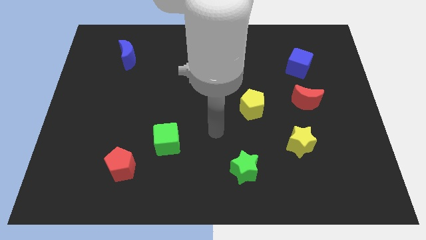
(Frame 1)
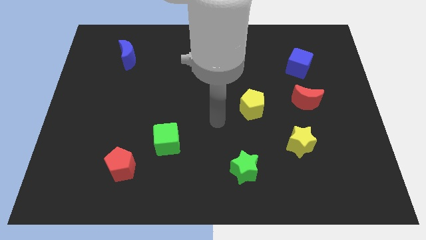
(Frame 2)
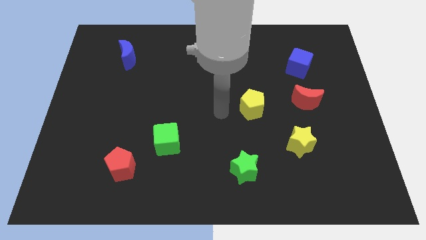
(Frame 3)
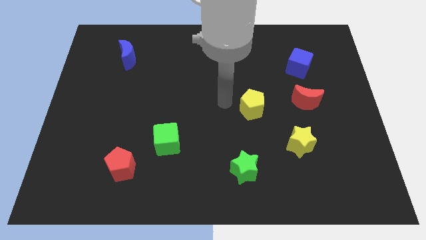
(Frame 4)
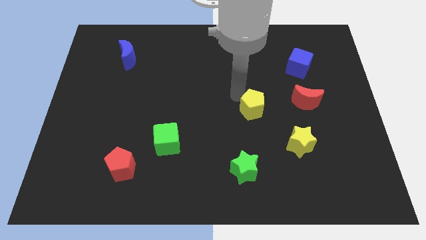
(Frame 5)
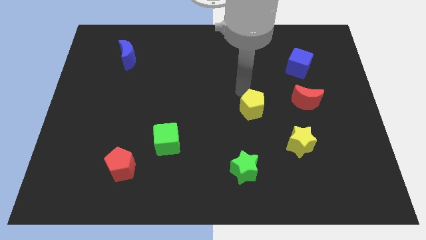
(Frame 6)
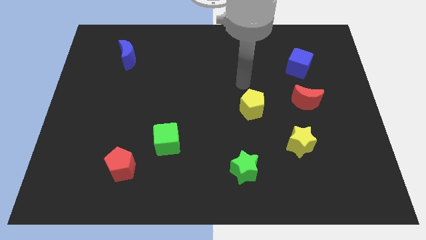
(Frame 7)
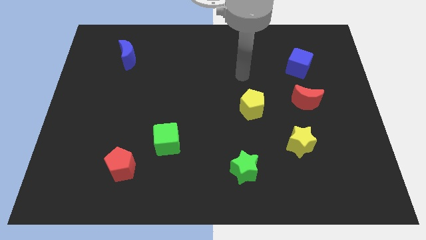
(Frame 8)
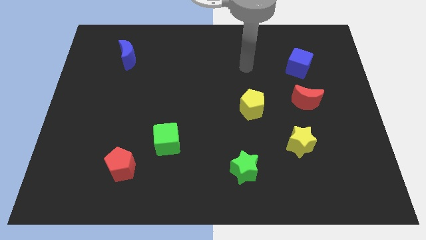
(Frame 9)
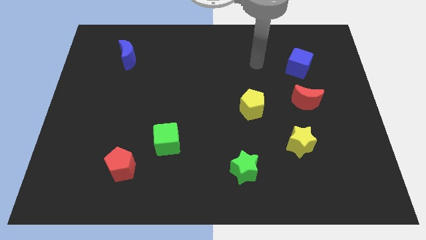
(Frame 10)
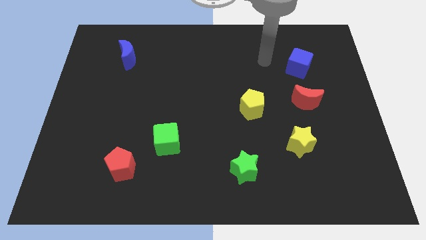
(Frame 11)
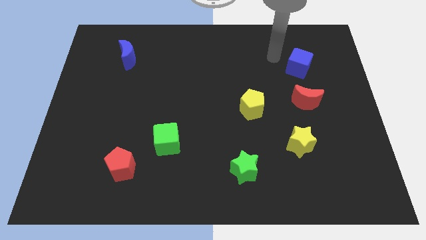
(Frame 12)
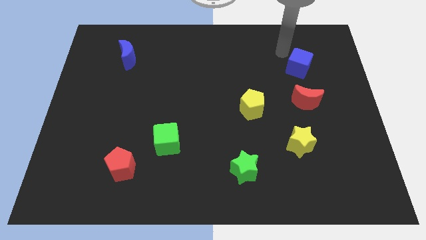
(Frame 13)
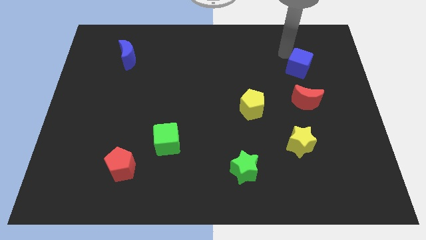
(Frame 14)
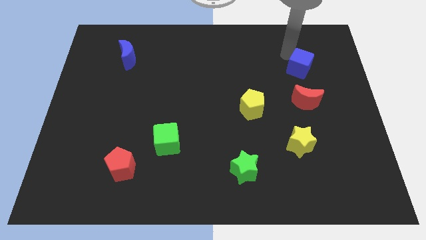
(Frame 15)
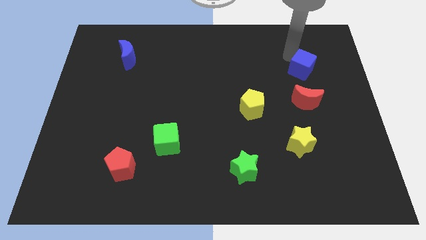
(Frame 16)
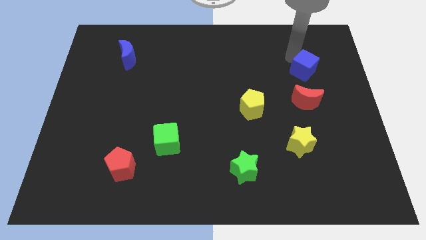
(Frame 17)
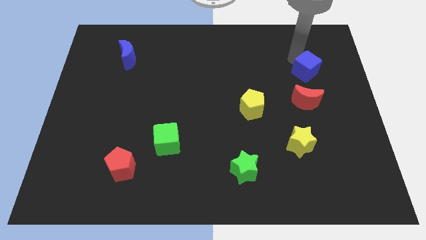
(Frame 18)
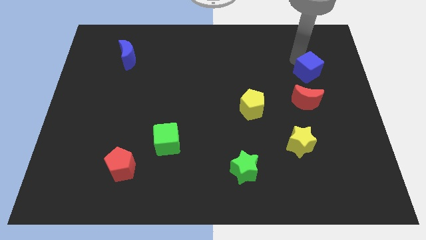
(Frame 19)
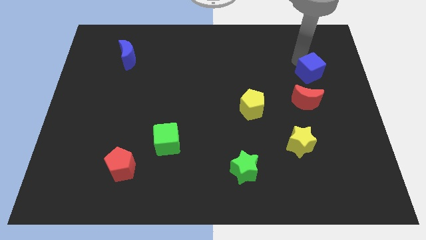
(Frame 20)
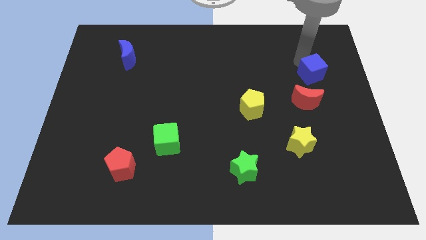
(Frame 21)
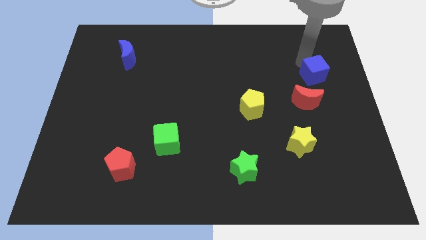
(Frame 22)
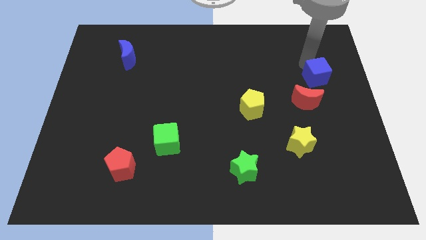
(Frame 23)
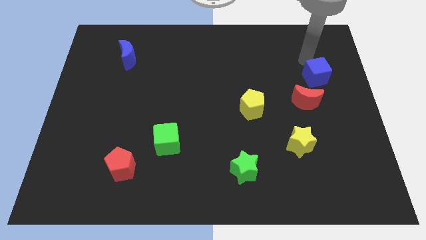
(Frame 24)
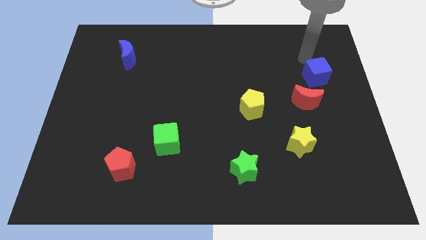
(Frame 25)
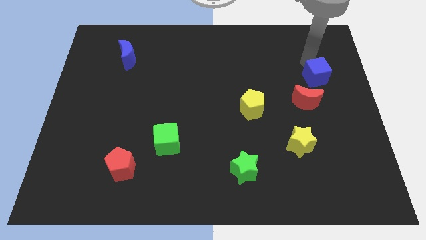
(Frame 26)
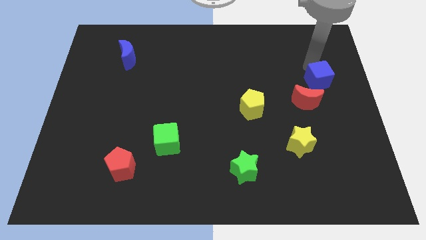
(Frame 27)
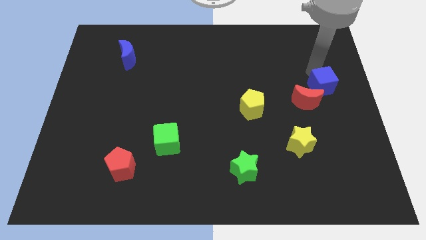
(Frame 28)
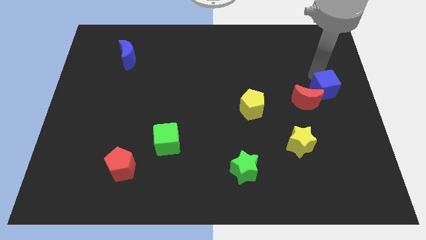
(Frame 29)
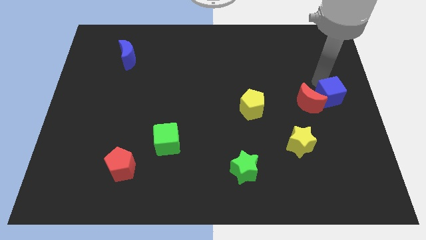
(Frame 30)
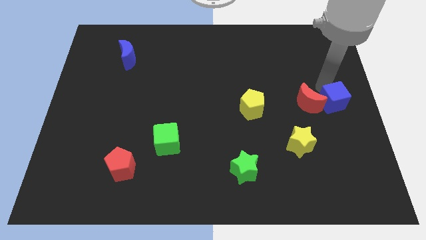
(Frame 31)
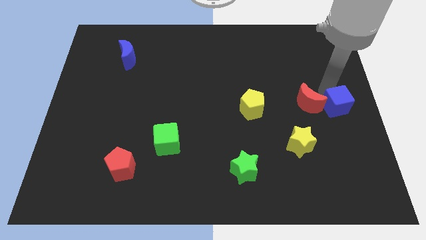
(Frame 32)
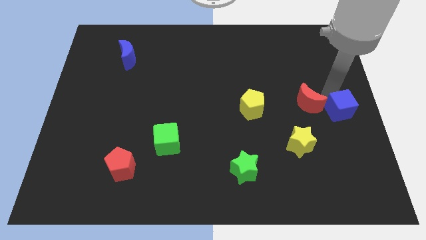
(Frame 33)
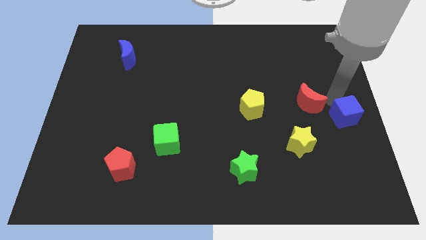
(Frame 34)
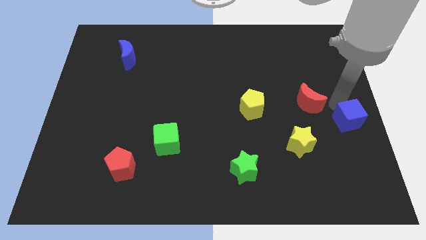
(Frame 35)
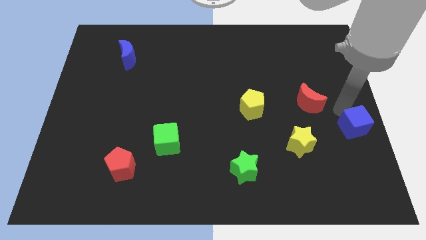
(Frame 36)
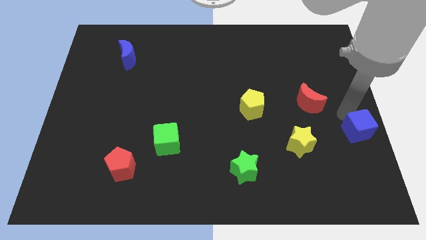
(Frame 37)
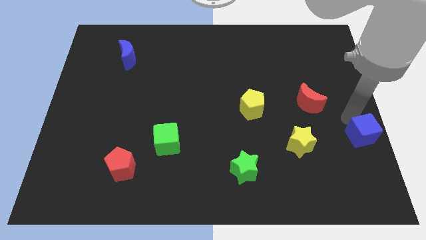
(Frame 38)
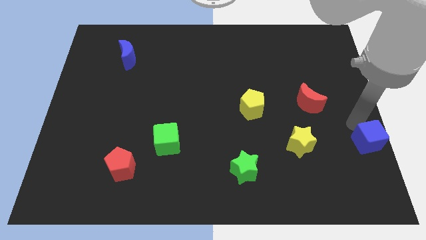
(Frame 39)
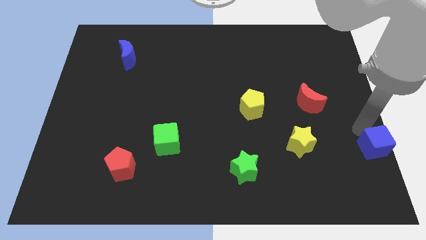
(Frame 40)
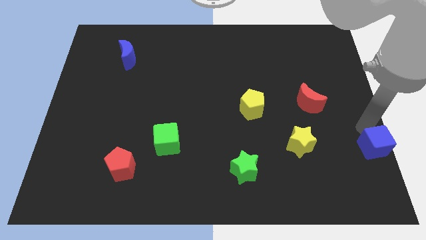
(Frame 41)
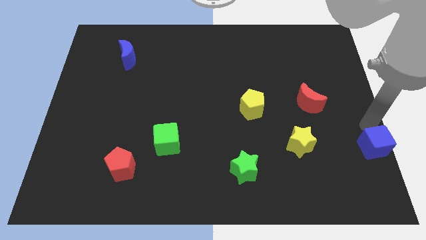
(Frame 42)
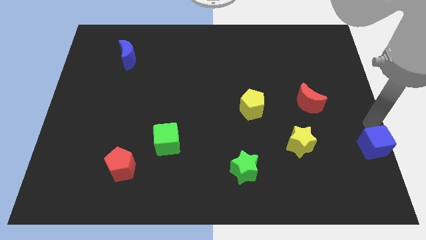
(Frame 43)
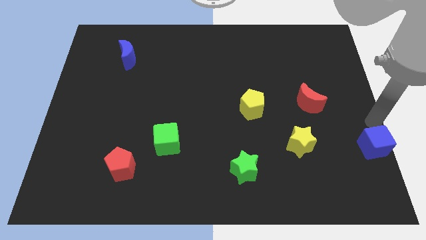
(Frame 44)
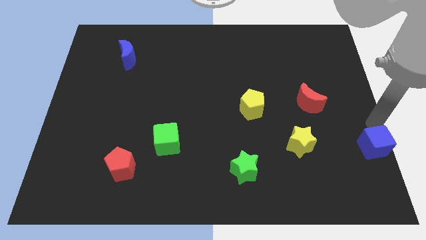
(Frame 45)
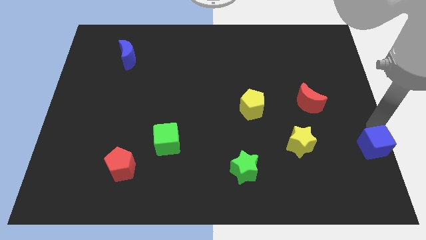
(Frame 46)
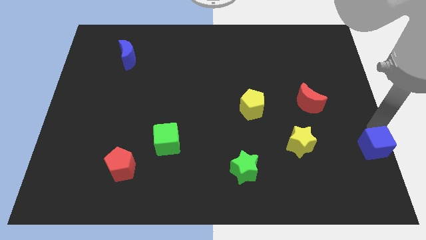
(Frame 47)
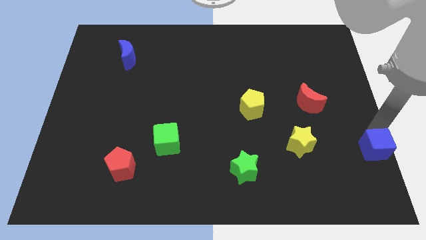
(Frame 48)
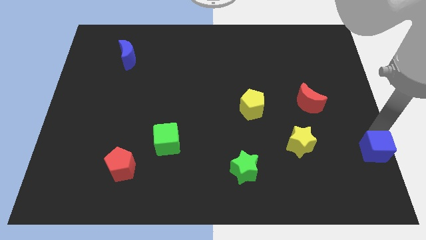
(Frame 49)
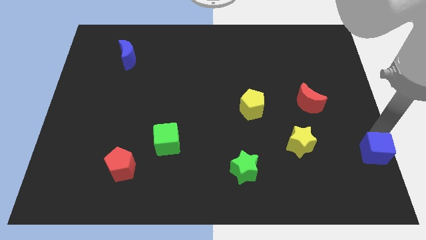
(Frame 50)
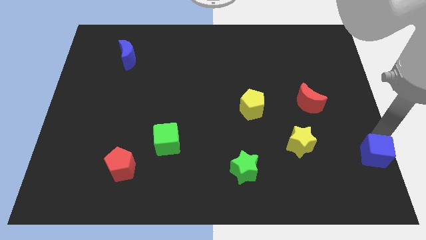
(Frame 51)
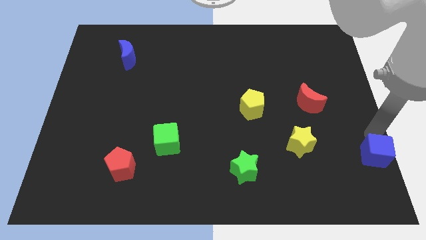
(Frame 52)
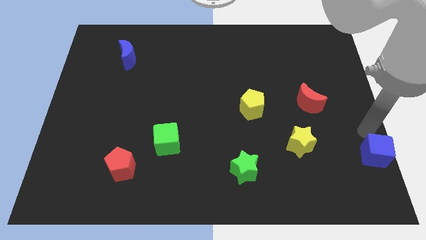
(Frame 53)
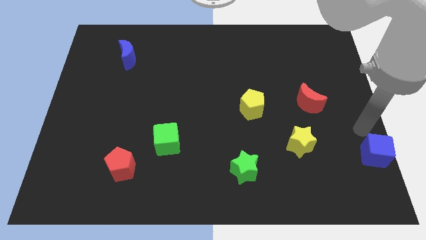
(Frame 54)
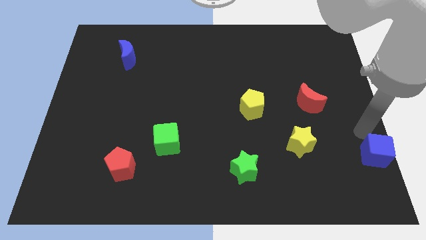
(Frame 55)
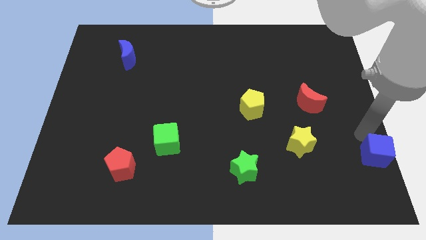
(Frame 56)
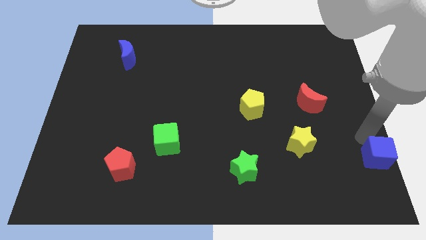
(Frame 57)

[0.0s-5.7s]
push the blue cube to the bottom right

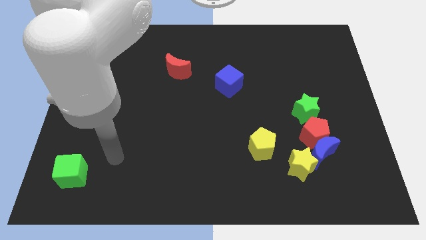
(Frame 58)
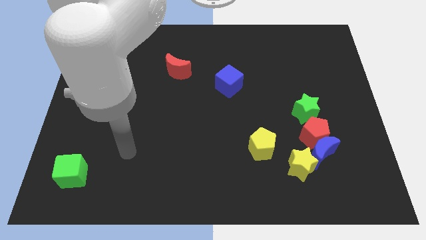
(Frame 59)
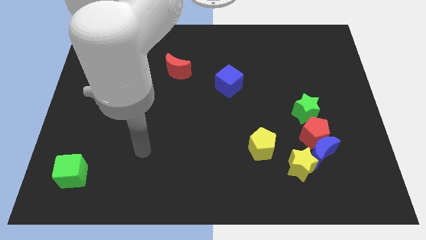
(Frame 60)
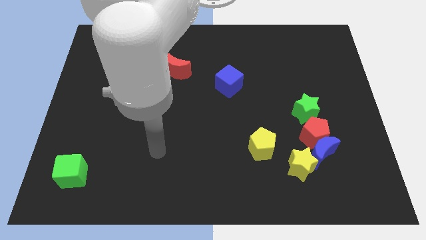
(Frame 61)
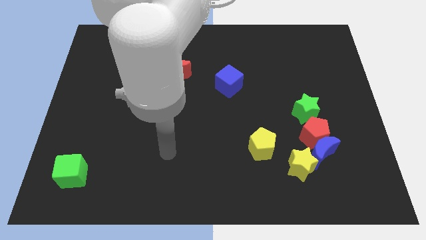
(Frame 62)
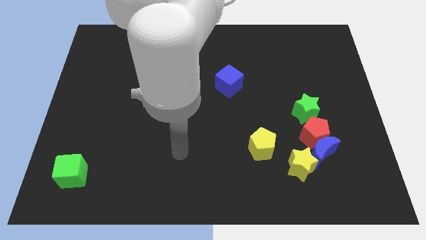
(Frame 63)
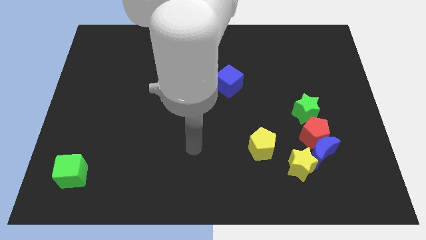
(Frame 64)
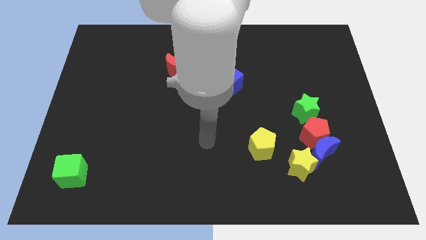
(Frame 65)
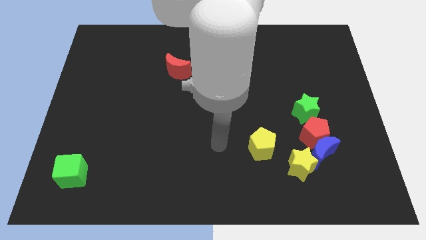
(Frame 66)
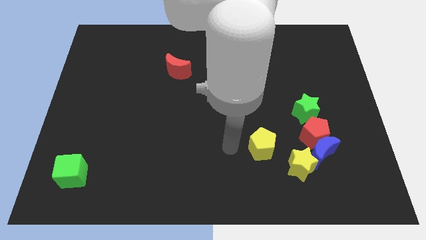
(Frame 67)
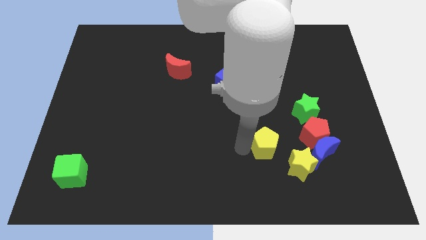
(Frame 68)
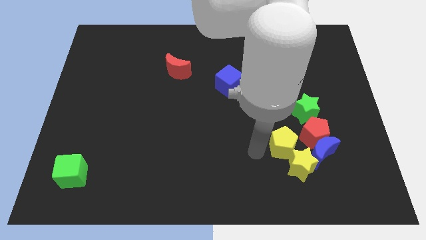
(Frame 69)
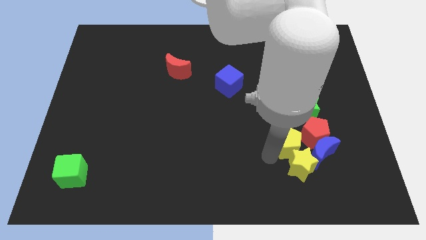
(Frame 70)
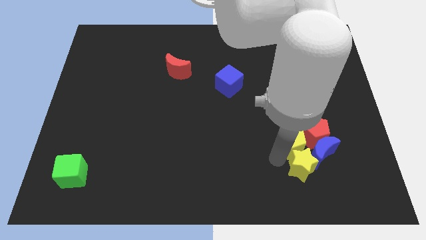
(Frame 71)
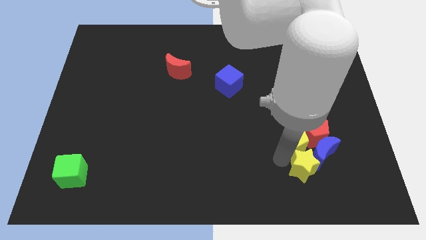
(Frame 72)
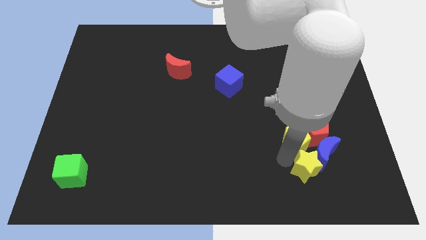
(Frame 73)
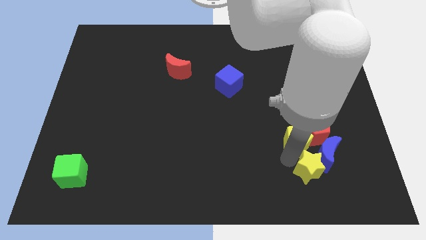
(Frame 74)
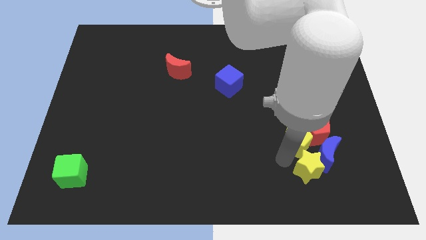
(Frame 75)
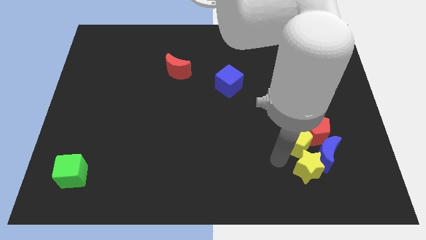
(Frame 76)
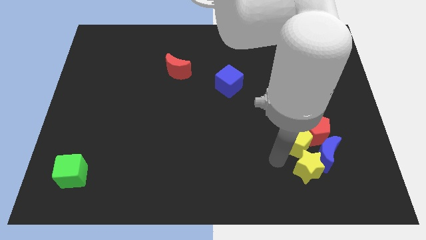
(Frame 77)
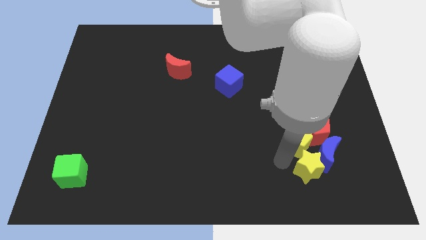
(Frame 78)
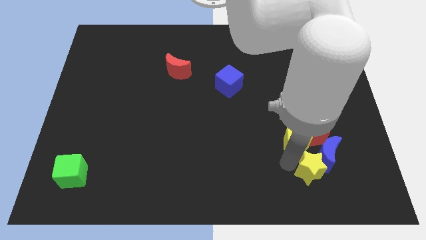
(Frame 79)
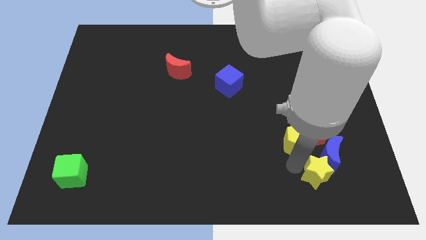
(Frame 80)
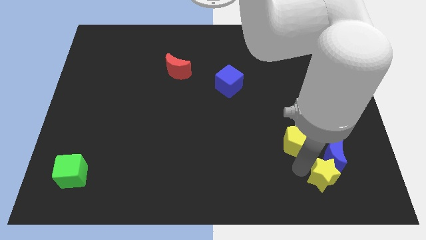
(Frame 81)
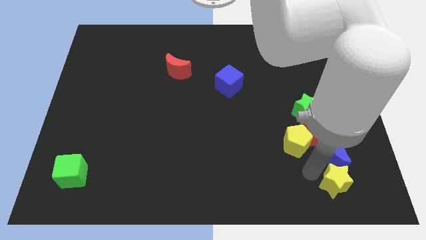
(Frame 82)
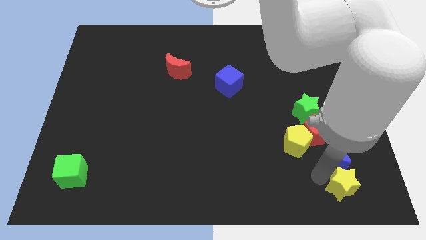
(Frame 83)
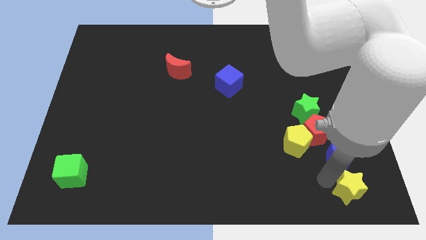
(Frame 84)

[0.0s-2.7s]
push the yellow star to the bottom right of the board
